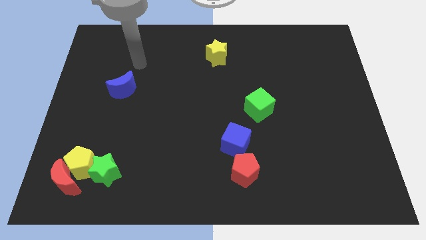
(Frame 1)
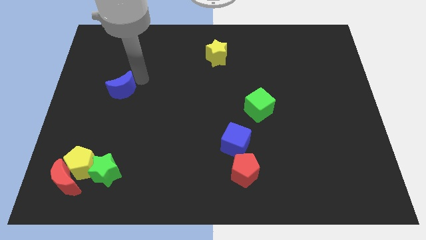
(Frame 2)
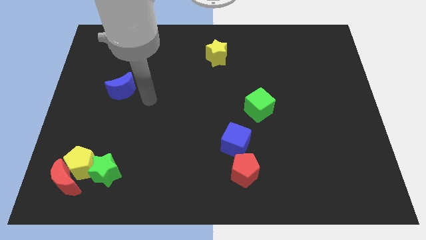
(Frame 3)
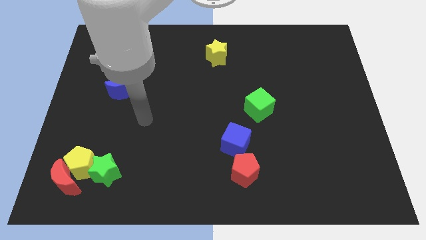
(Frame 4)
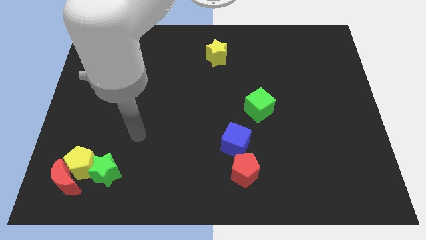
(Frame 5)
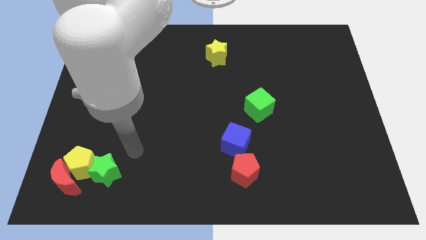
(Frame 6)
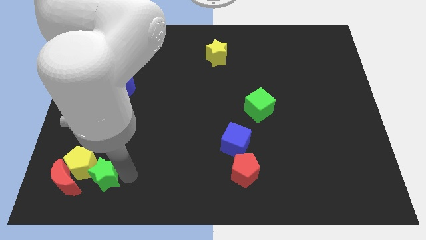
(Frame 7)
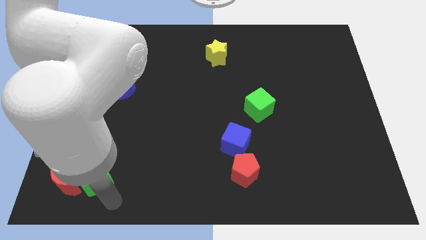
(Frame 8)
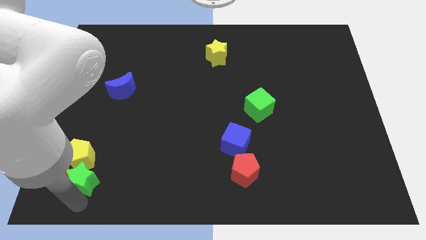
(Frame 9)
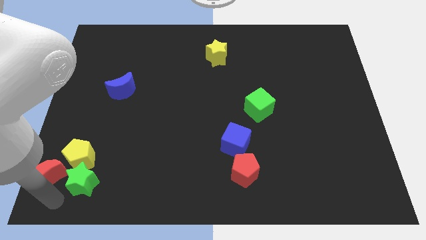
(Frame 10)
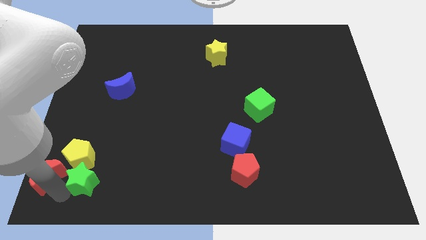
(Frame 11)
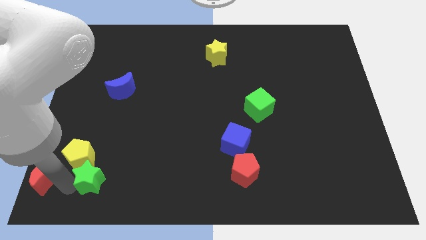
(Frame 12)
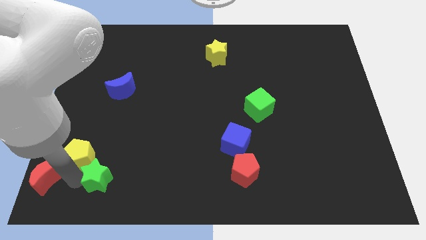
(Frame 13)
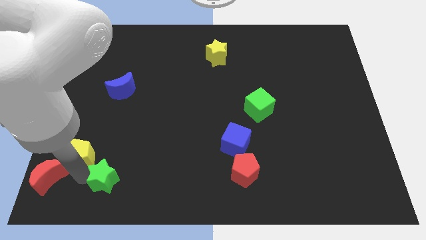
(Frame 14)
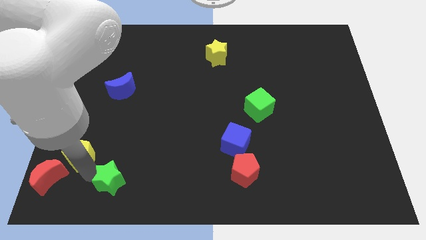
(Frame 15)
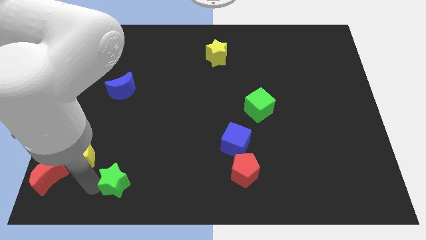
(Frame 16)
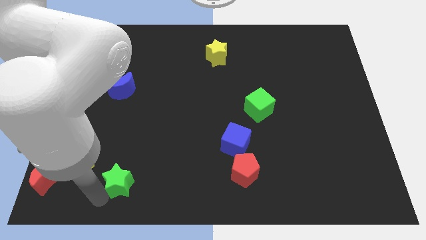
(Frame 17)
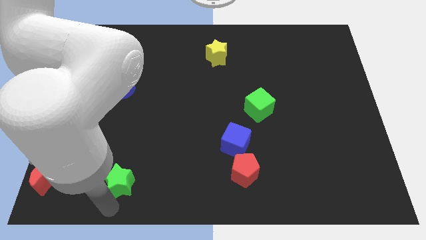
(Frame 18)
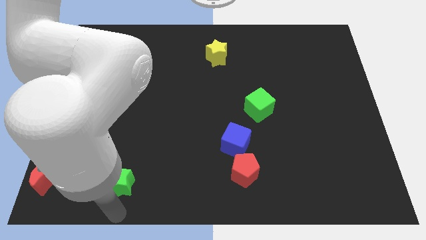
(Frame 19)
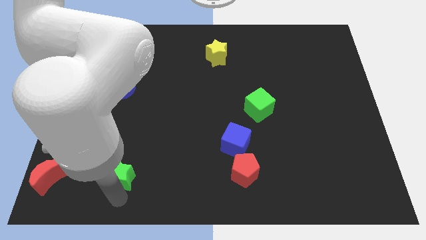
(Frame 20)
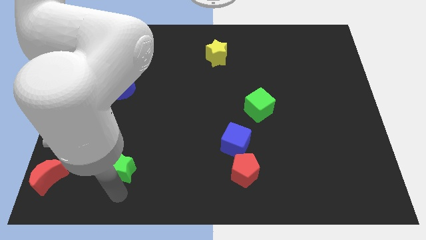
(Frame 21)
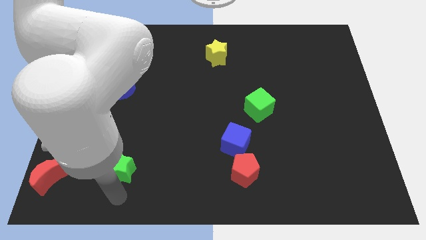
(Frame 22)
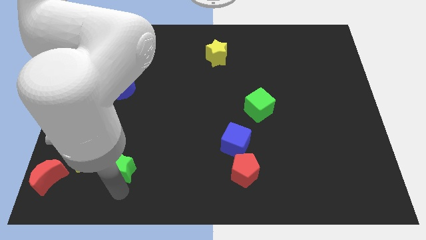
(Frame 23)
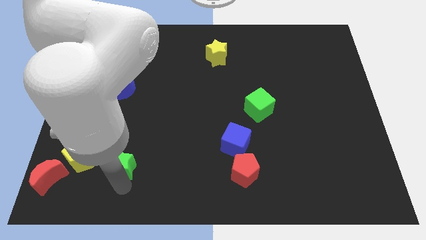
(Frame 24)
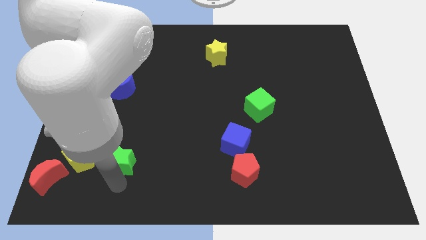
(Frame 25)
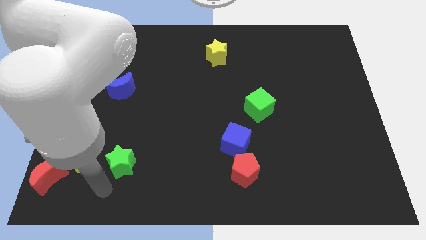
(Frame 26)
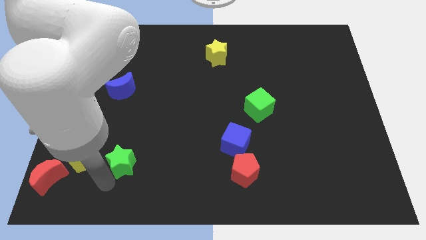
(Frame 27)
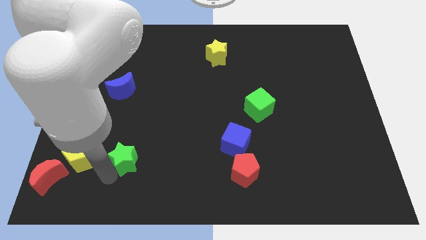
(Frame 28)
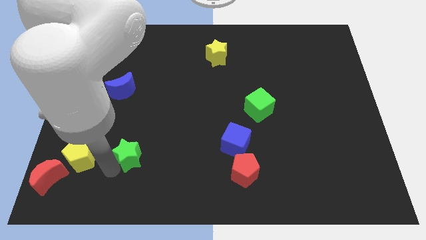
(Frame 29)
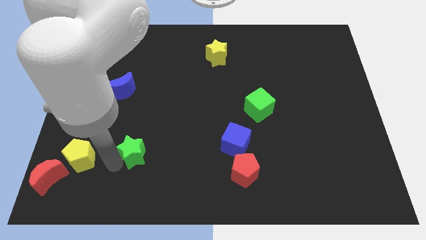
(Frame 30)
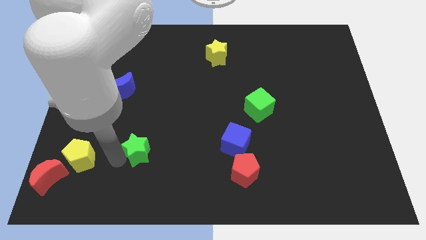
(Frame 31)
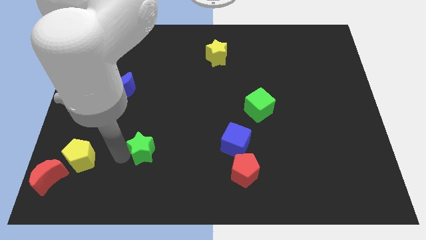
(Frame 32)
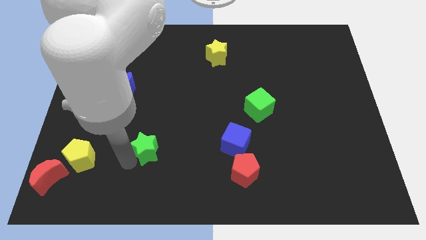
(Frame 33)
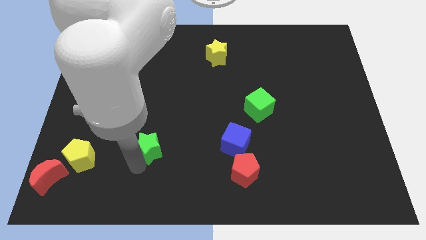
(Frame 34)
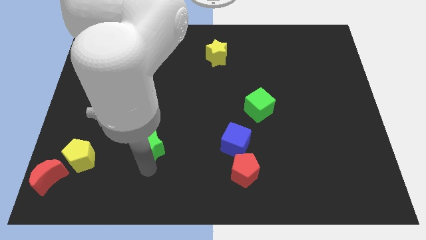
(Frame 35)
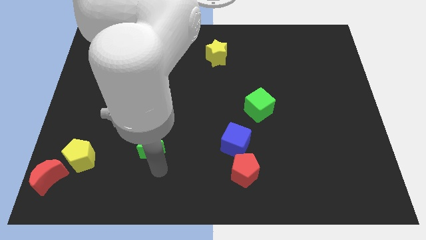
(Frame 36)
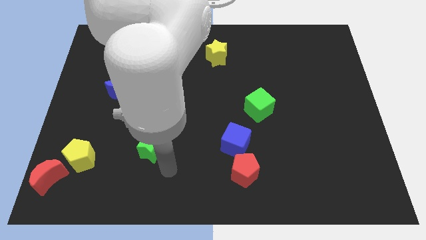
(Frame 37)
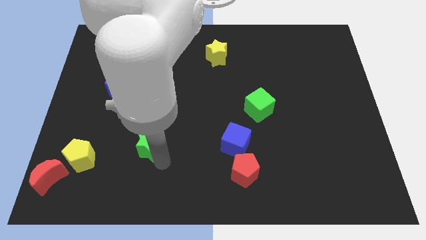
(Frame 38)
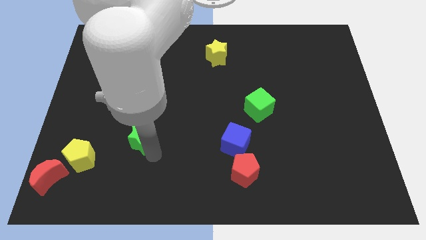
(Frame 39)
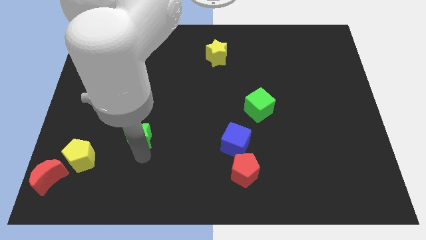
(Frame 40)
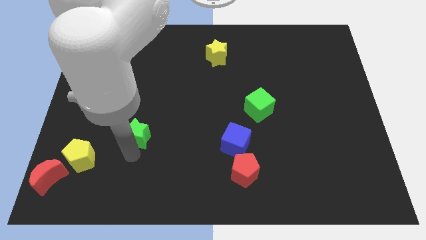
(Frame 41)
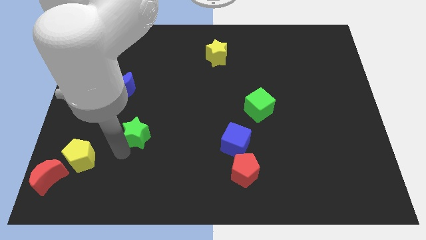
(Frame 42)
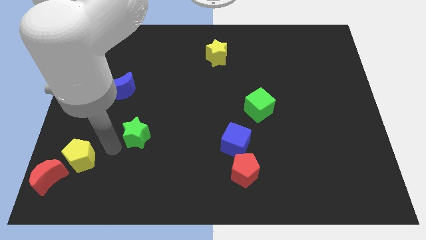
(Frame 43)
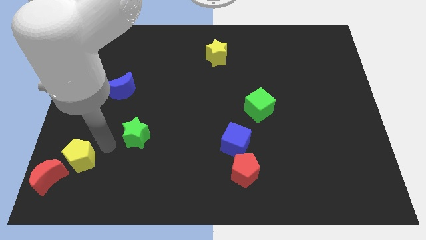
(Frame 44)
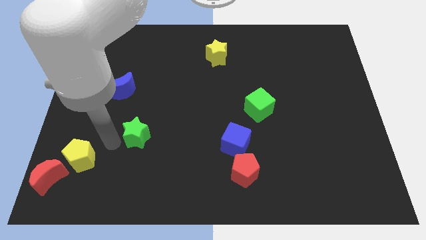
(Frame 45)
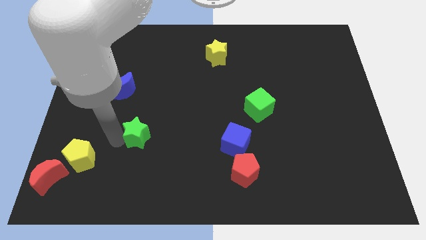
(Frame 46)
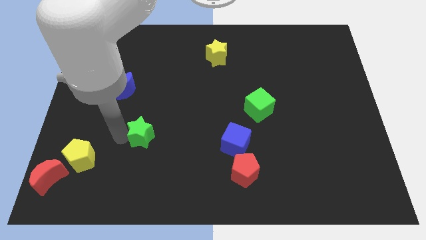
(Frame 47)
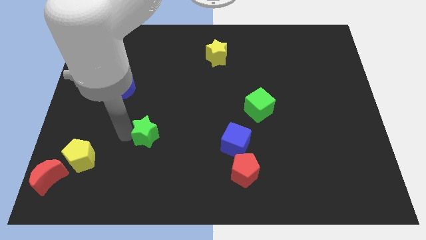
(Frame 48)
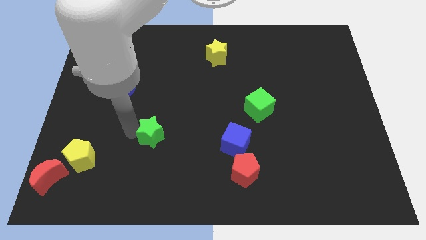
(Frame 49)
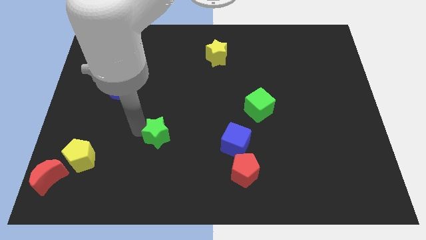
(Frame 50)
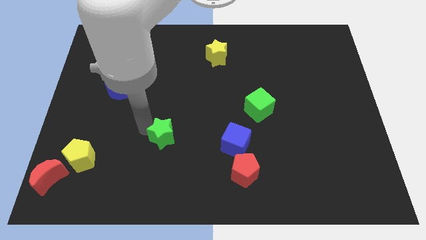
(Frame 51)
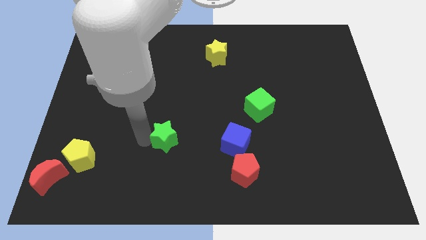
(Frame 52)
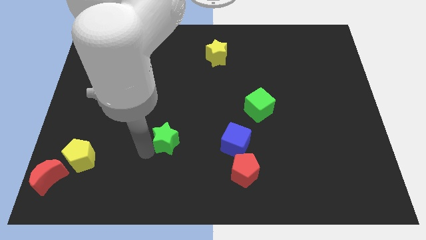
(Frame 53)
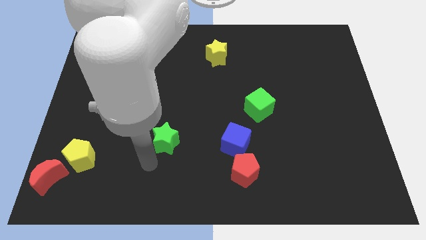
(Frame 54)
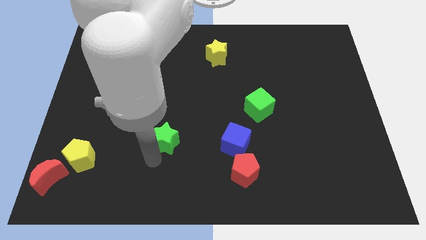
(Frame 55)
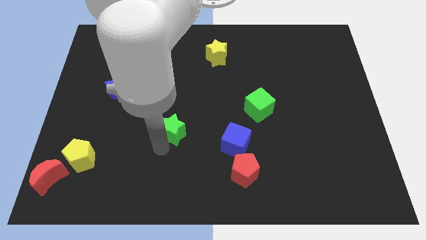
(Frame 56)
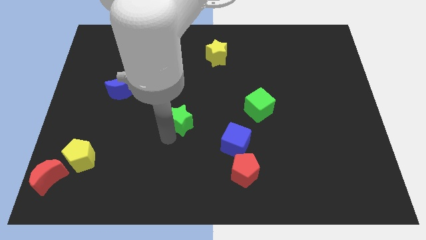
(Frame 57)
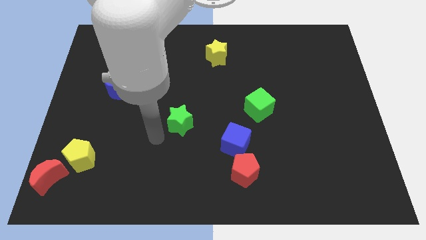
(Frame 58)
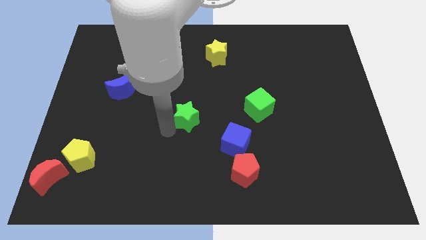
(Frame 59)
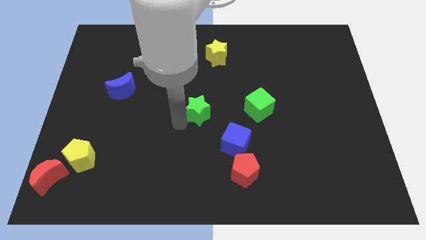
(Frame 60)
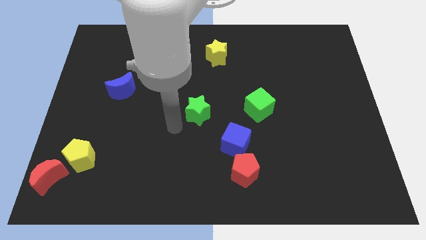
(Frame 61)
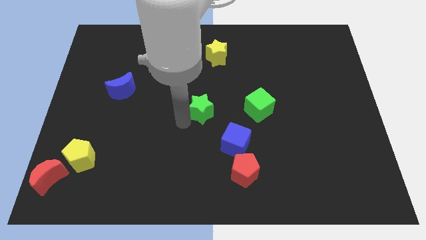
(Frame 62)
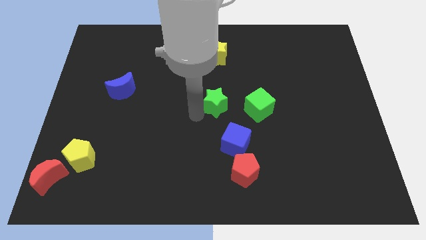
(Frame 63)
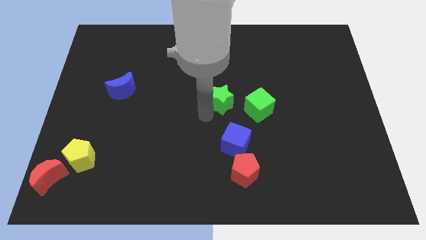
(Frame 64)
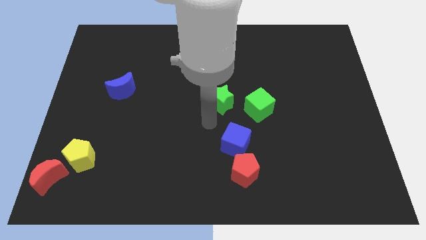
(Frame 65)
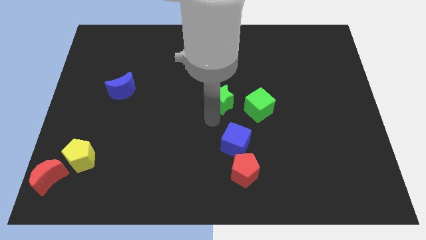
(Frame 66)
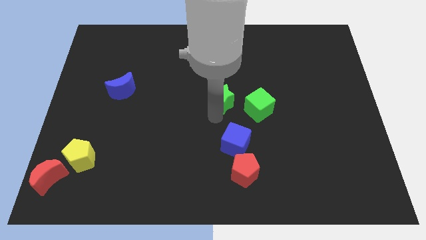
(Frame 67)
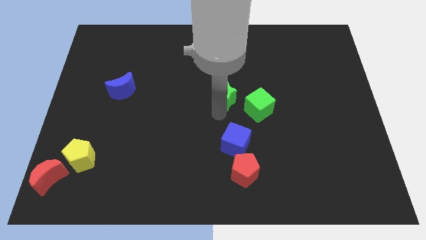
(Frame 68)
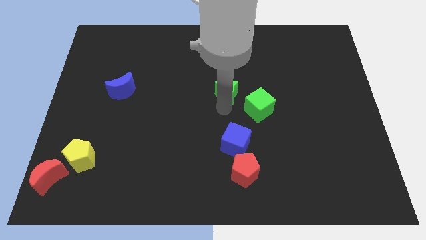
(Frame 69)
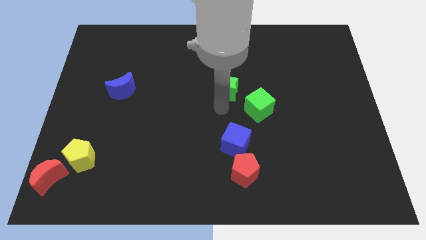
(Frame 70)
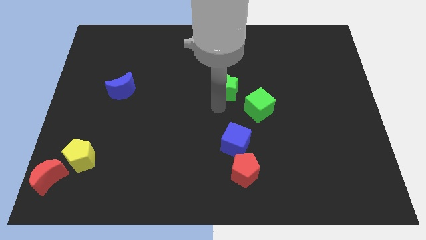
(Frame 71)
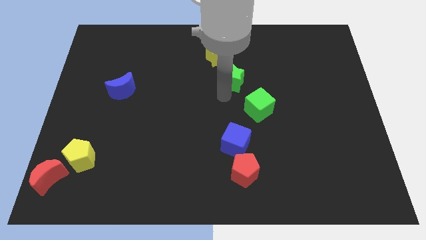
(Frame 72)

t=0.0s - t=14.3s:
put the green star to the bottom right of the yellow star
